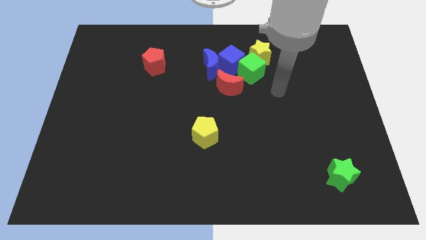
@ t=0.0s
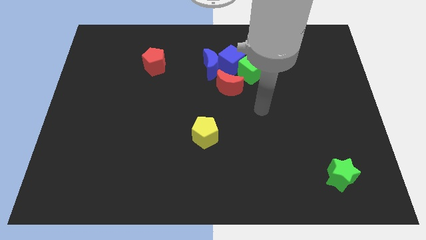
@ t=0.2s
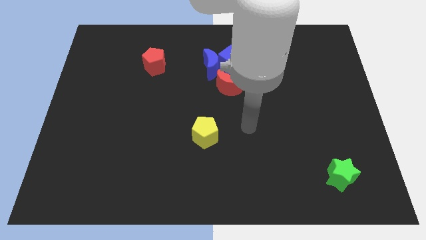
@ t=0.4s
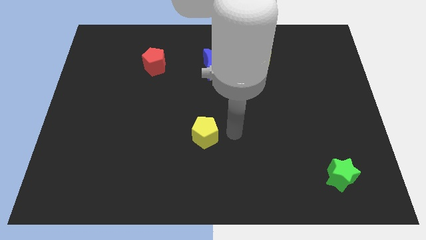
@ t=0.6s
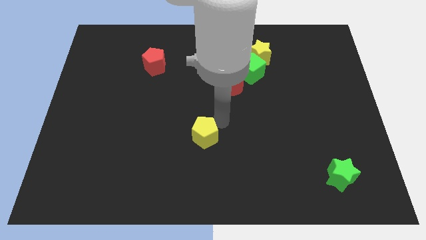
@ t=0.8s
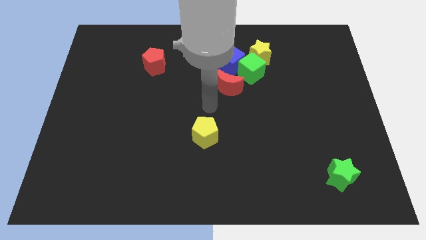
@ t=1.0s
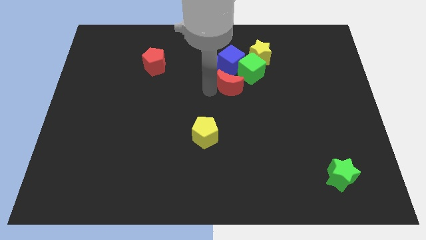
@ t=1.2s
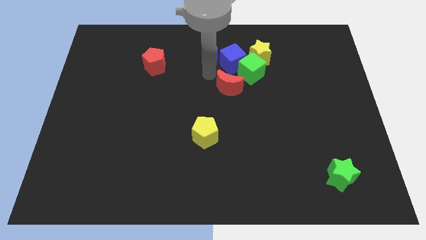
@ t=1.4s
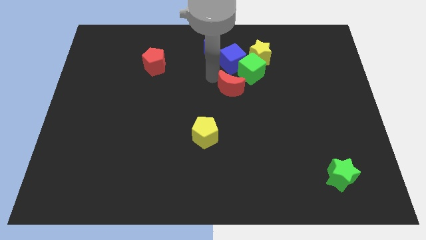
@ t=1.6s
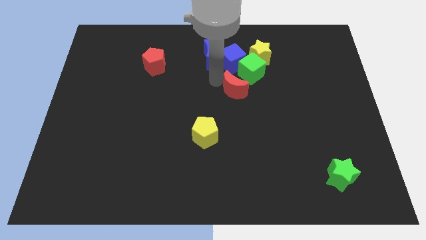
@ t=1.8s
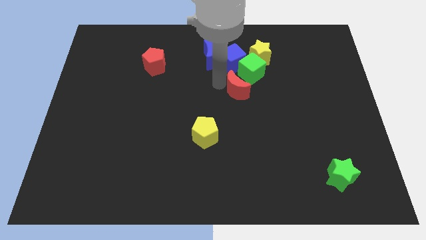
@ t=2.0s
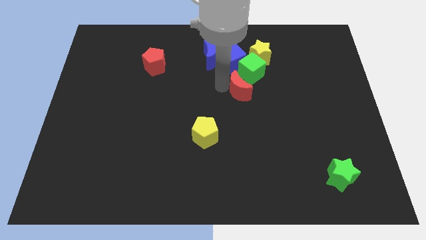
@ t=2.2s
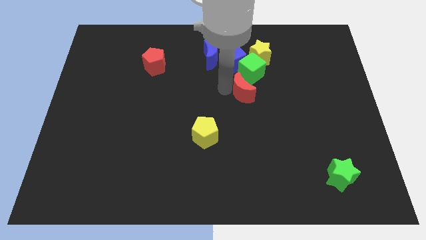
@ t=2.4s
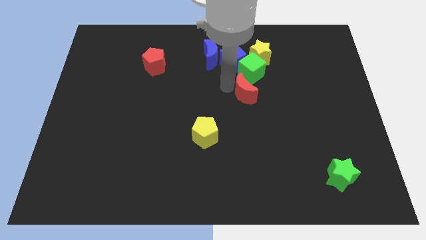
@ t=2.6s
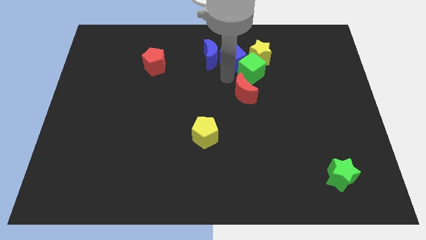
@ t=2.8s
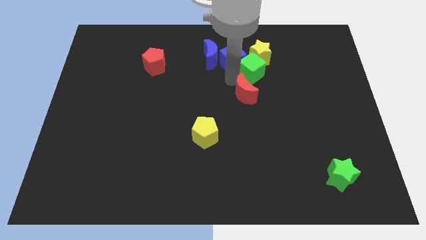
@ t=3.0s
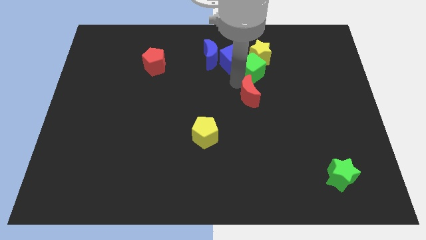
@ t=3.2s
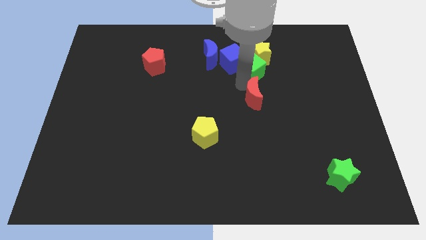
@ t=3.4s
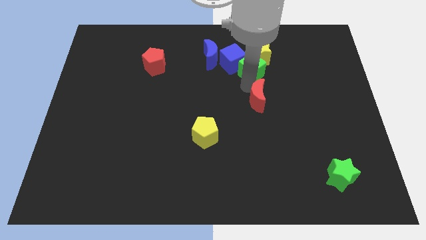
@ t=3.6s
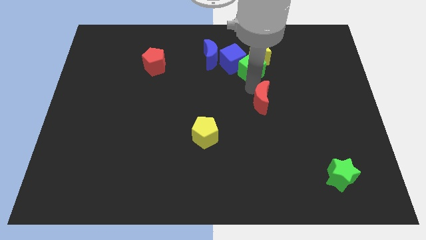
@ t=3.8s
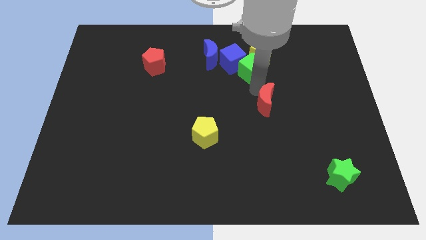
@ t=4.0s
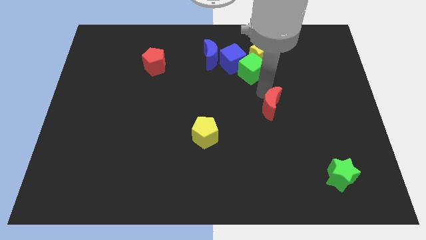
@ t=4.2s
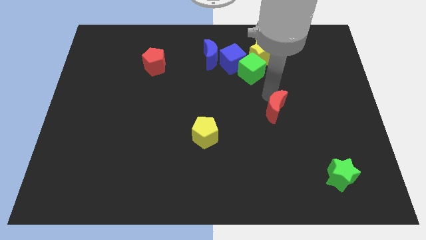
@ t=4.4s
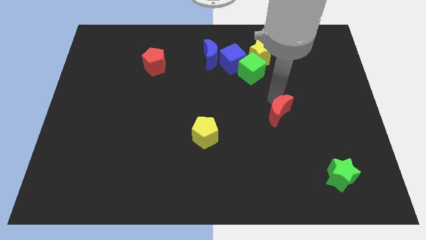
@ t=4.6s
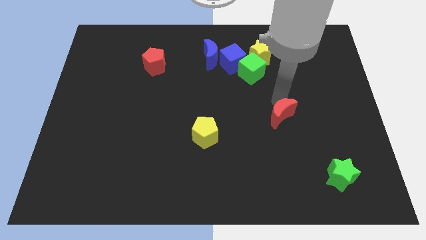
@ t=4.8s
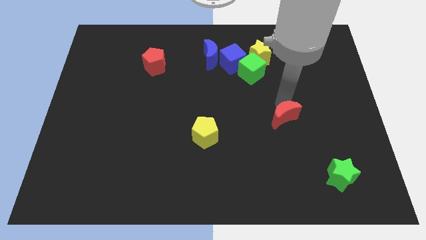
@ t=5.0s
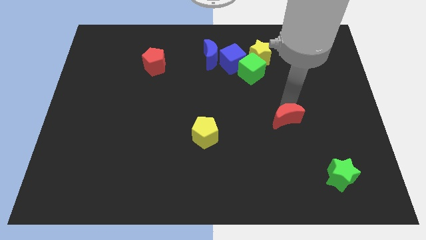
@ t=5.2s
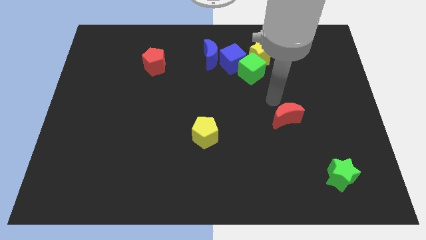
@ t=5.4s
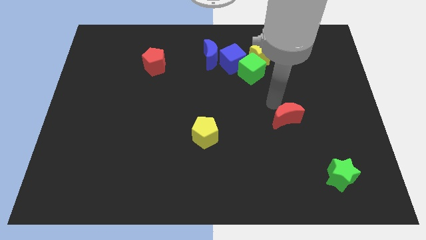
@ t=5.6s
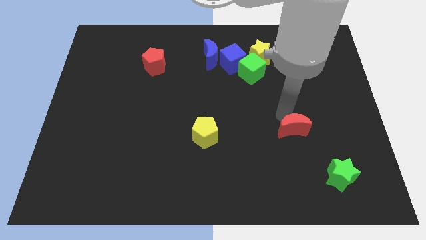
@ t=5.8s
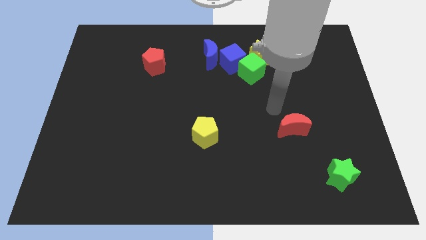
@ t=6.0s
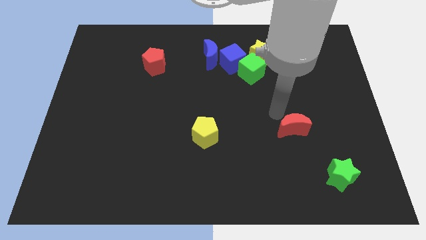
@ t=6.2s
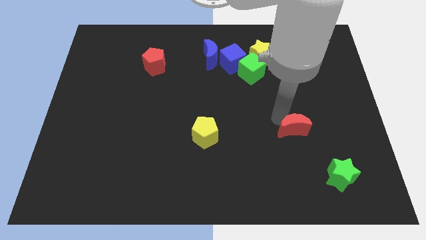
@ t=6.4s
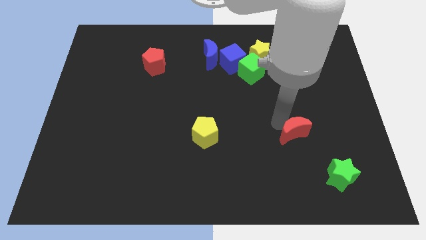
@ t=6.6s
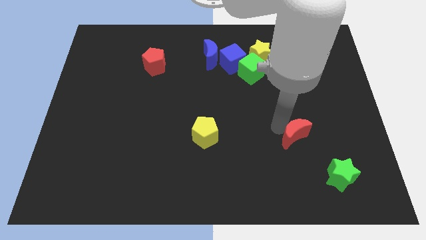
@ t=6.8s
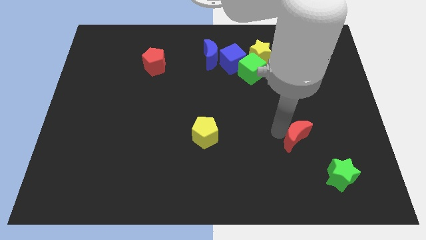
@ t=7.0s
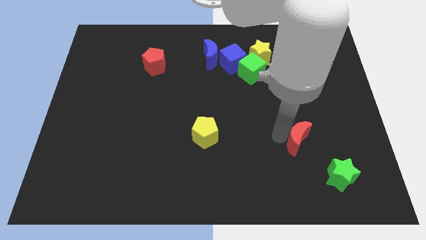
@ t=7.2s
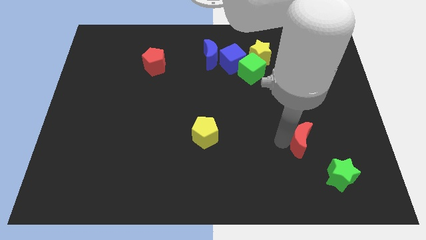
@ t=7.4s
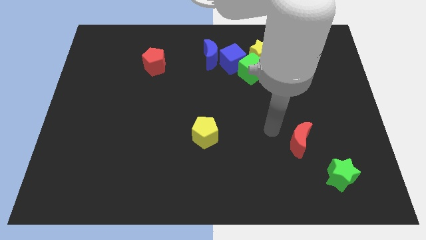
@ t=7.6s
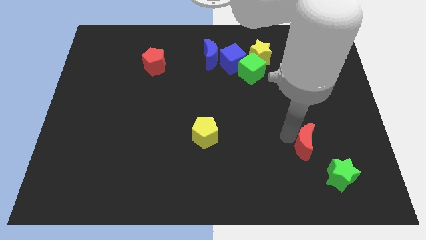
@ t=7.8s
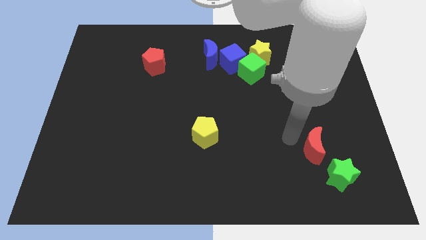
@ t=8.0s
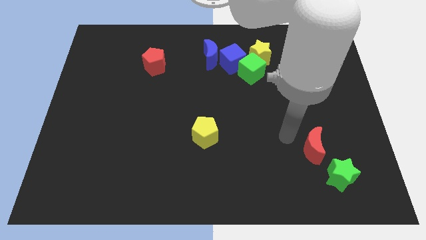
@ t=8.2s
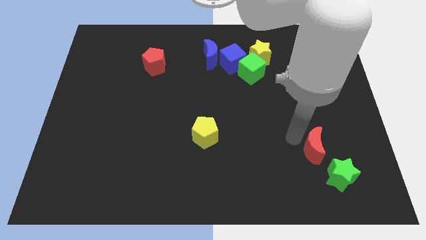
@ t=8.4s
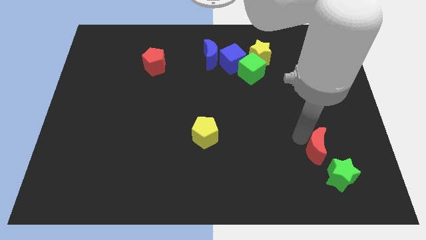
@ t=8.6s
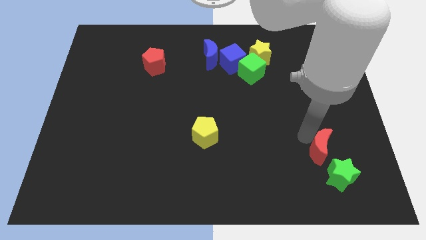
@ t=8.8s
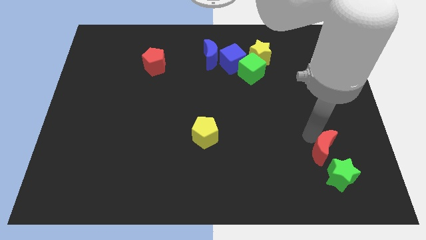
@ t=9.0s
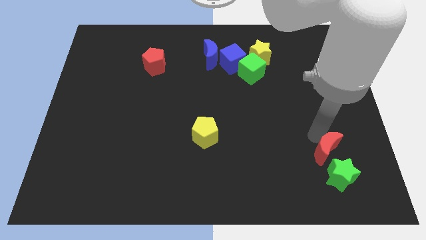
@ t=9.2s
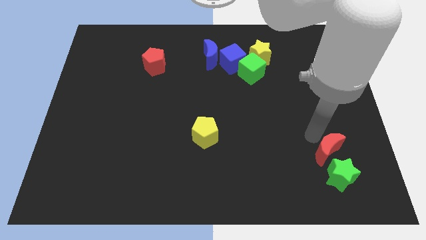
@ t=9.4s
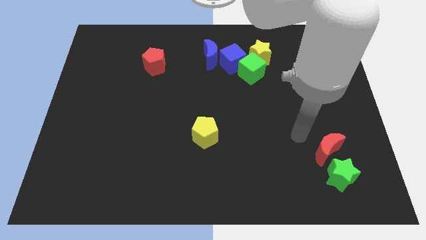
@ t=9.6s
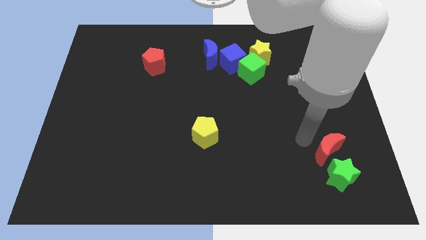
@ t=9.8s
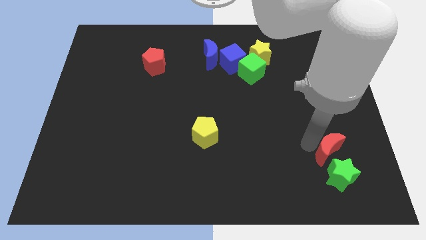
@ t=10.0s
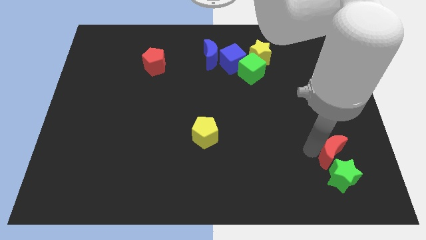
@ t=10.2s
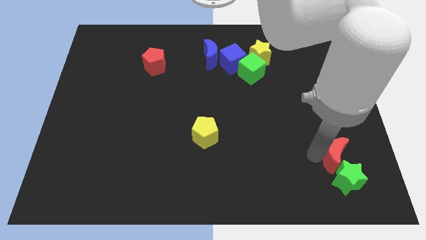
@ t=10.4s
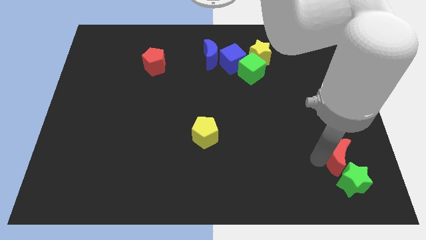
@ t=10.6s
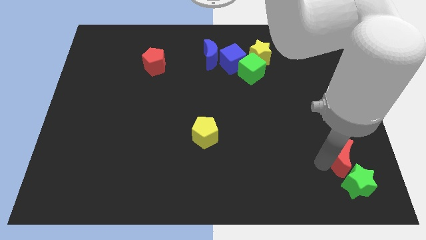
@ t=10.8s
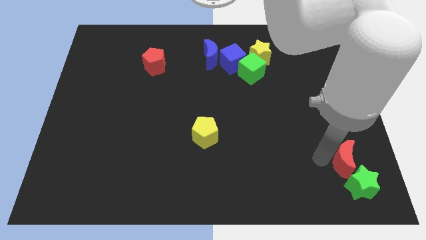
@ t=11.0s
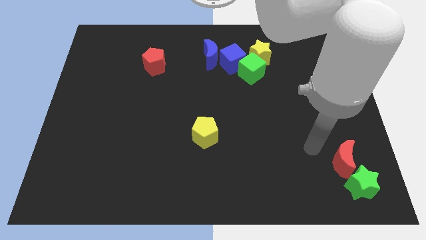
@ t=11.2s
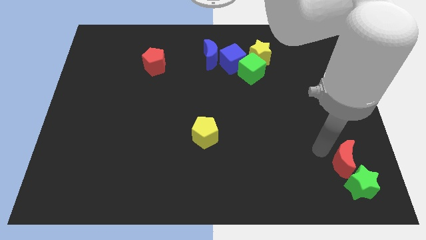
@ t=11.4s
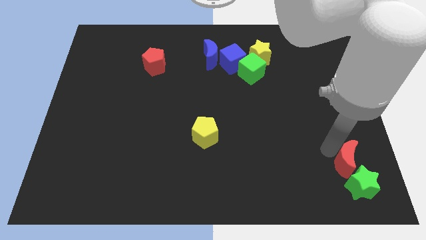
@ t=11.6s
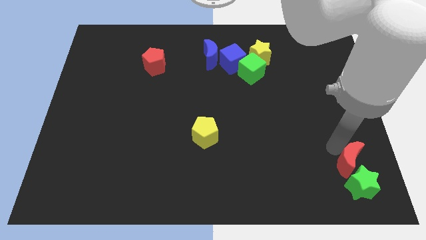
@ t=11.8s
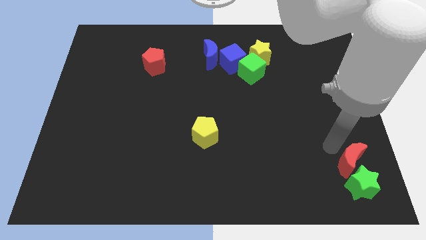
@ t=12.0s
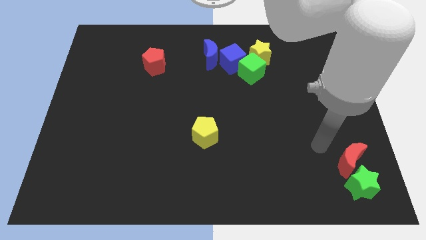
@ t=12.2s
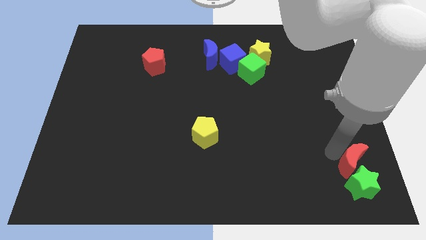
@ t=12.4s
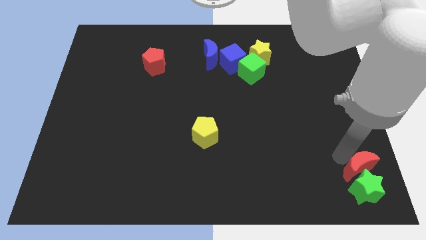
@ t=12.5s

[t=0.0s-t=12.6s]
put the red moon to the bottom right

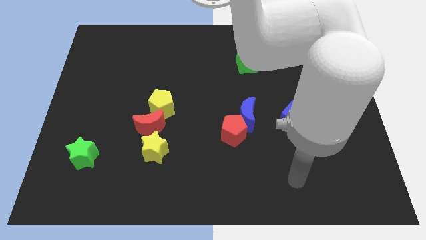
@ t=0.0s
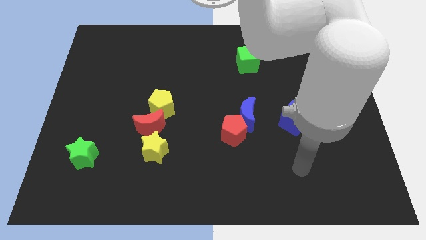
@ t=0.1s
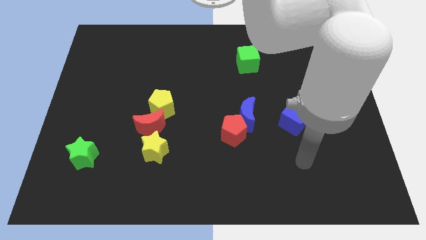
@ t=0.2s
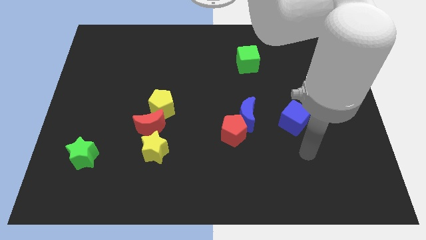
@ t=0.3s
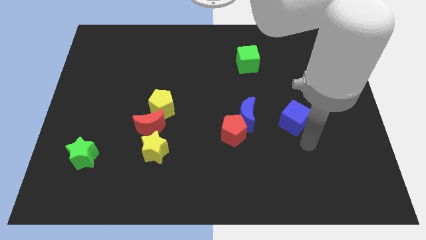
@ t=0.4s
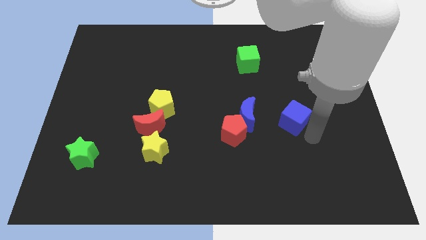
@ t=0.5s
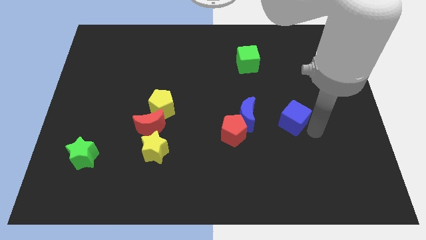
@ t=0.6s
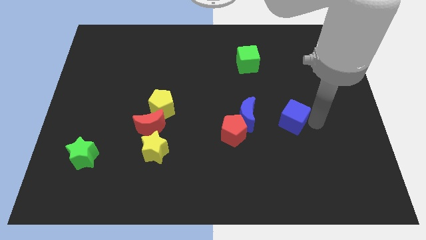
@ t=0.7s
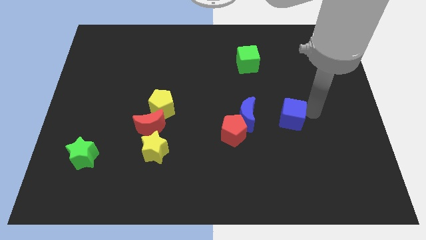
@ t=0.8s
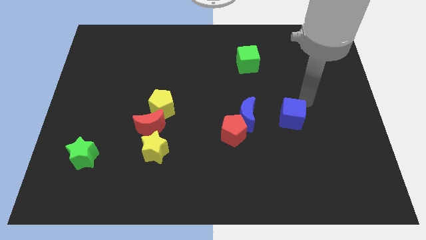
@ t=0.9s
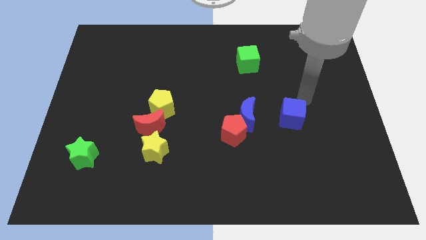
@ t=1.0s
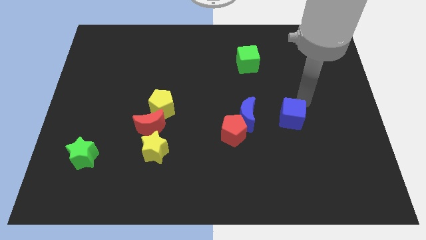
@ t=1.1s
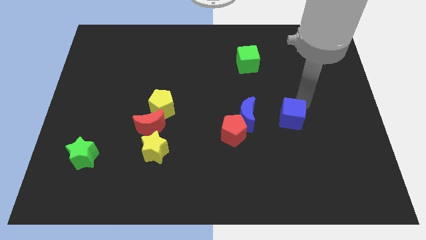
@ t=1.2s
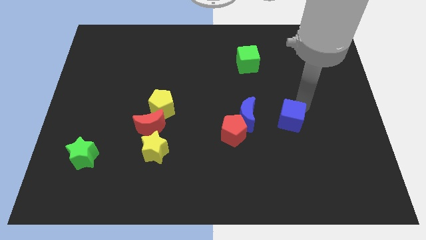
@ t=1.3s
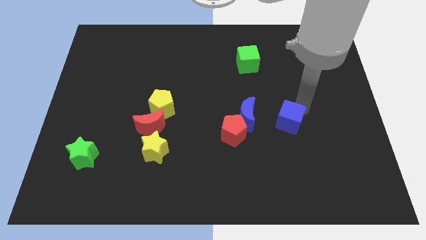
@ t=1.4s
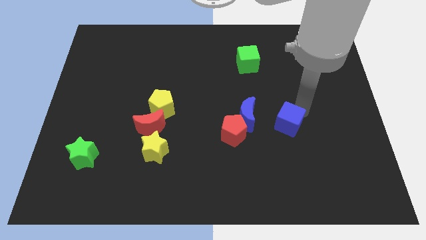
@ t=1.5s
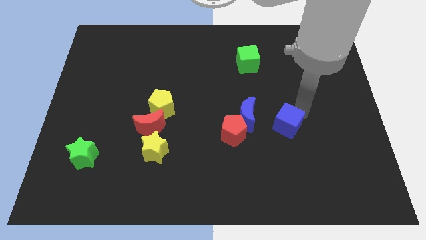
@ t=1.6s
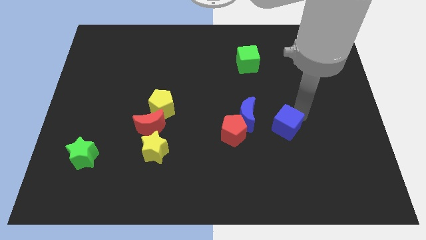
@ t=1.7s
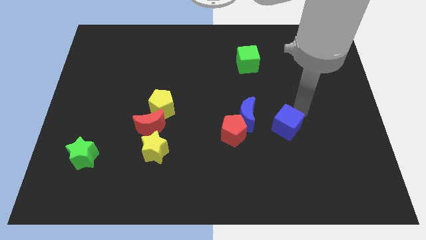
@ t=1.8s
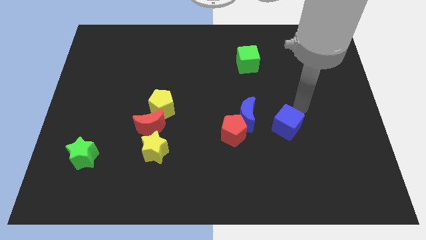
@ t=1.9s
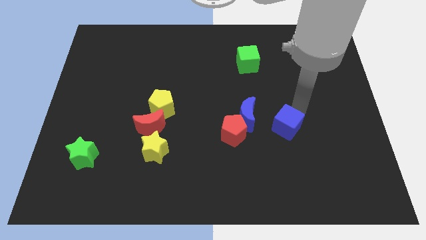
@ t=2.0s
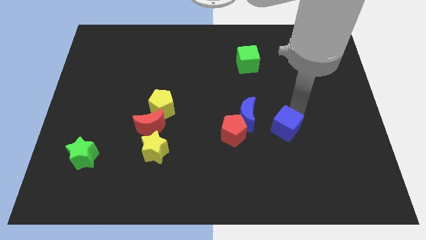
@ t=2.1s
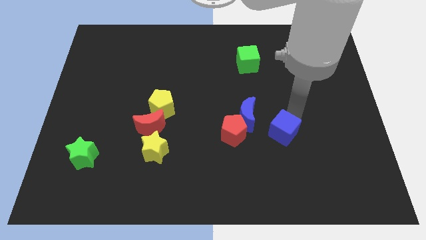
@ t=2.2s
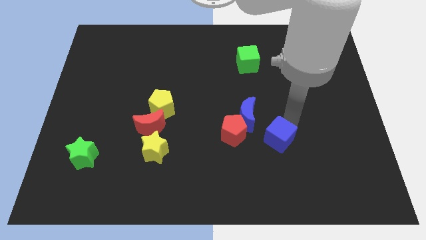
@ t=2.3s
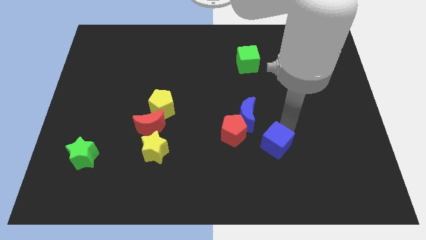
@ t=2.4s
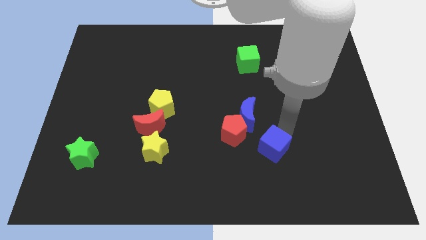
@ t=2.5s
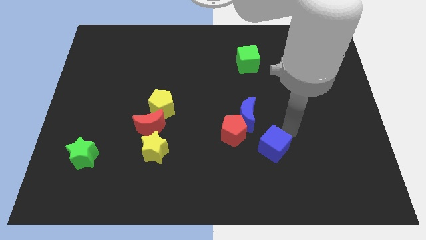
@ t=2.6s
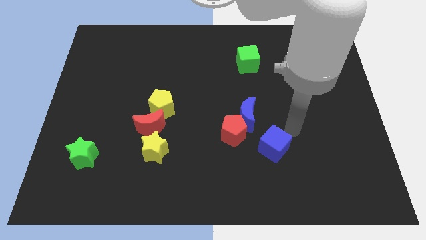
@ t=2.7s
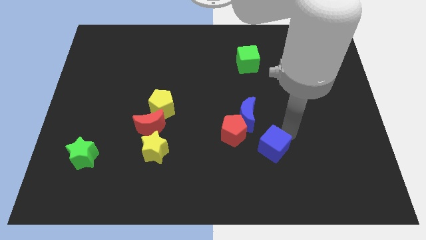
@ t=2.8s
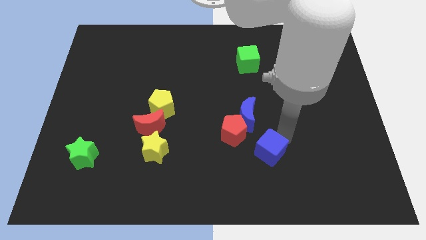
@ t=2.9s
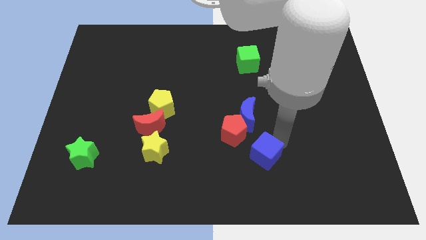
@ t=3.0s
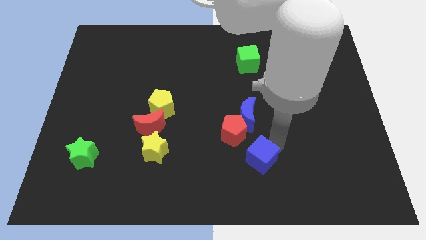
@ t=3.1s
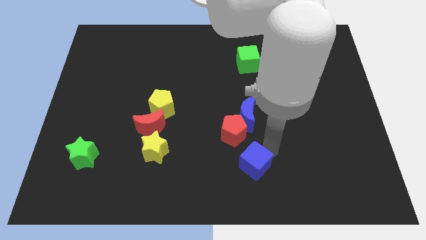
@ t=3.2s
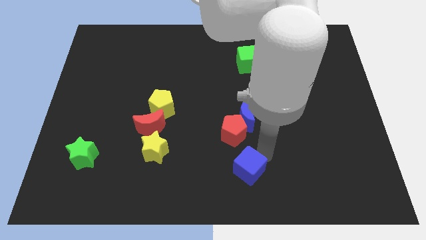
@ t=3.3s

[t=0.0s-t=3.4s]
push the blue cube to the bottom
